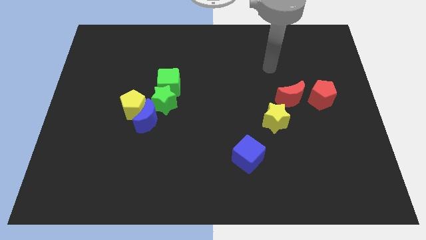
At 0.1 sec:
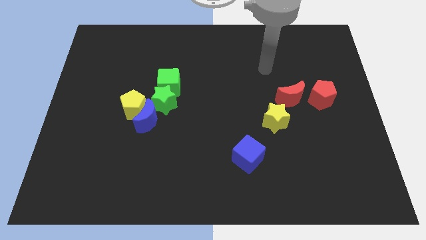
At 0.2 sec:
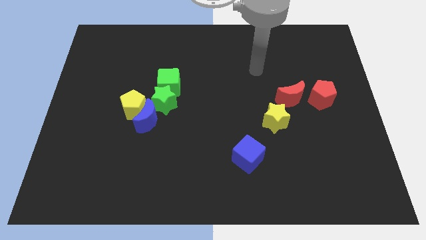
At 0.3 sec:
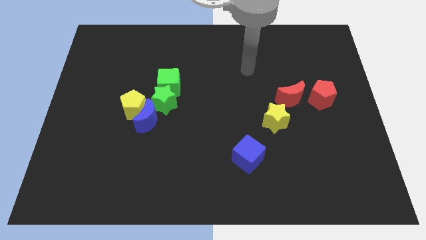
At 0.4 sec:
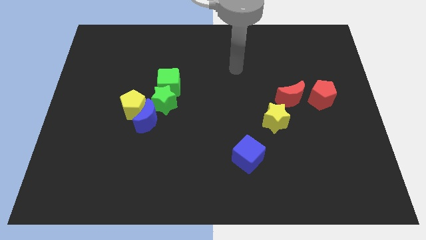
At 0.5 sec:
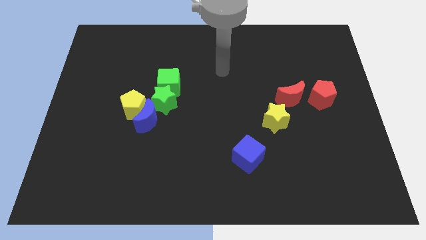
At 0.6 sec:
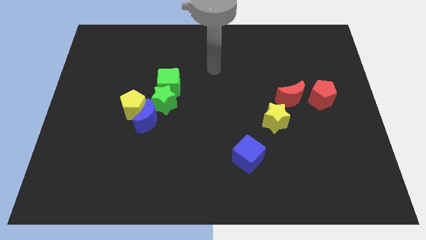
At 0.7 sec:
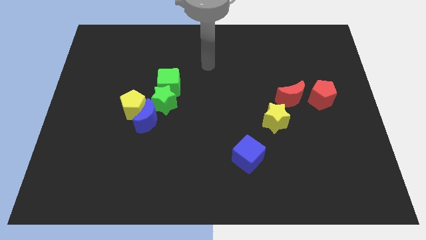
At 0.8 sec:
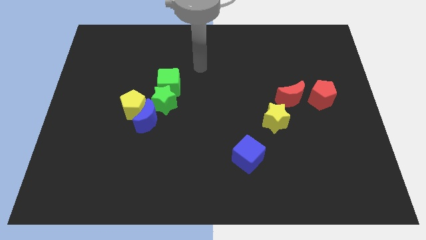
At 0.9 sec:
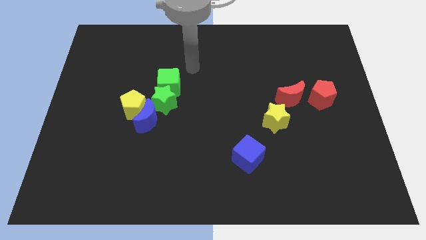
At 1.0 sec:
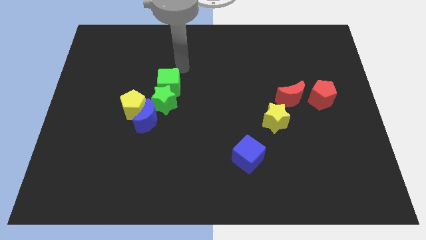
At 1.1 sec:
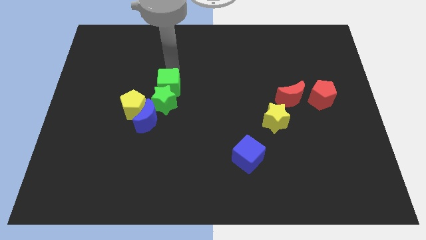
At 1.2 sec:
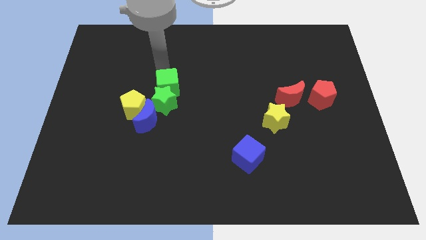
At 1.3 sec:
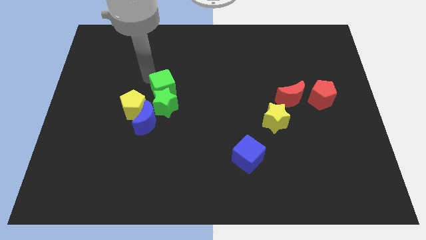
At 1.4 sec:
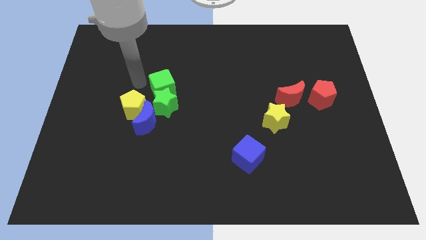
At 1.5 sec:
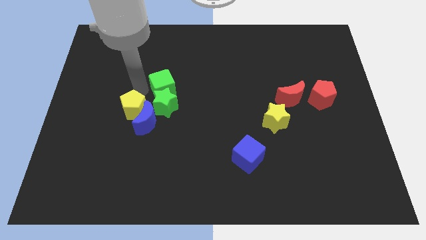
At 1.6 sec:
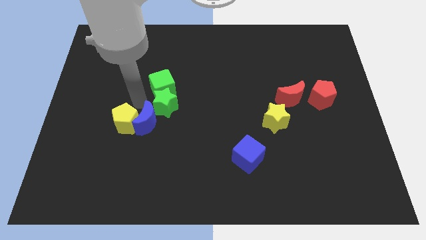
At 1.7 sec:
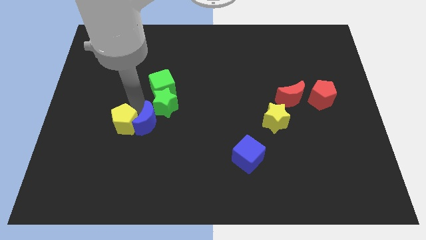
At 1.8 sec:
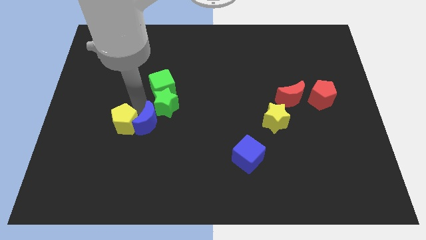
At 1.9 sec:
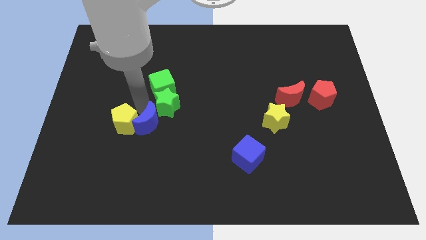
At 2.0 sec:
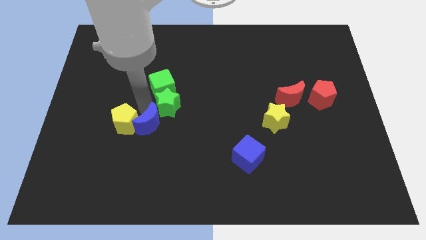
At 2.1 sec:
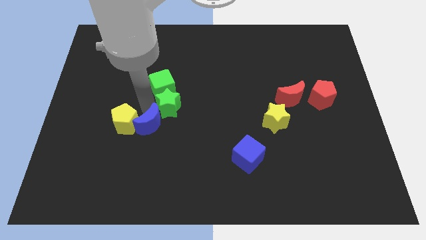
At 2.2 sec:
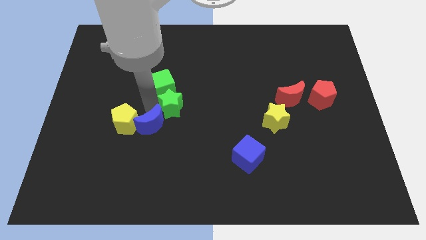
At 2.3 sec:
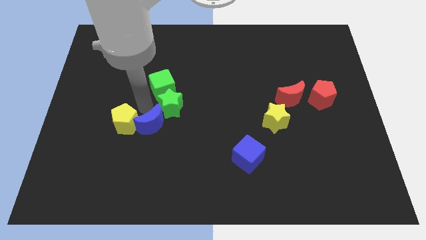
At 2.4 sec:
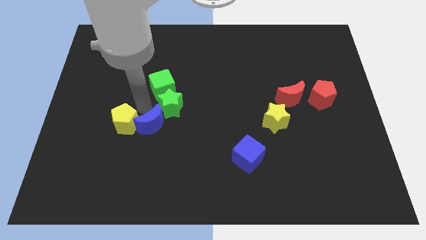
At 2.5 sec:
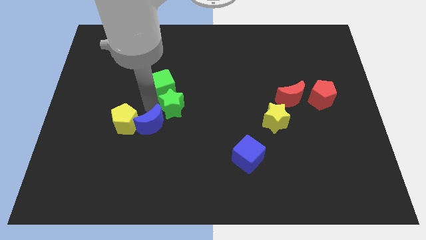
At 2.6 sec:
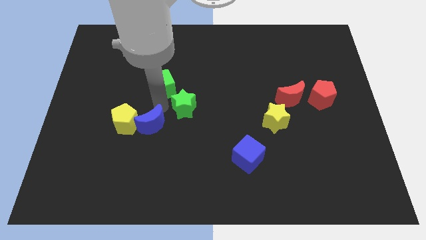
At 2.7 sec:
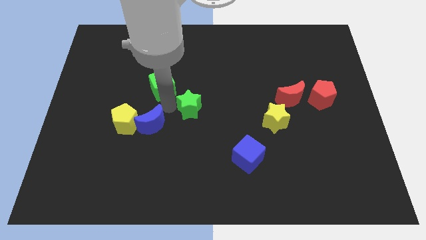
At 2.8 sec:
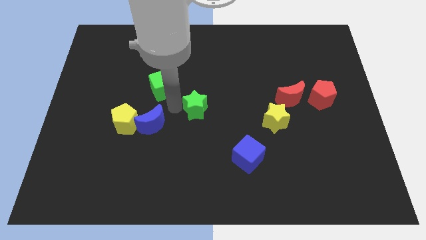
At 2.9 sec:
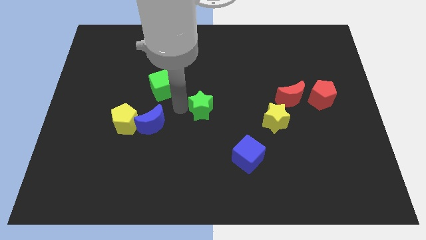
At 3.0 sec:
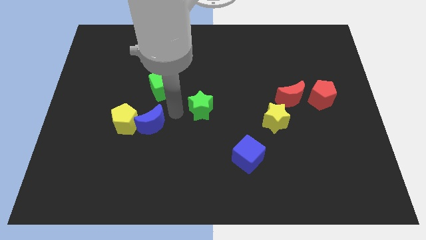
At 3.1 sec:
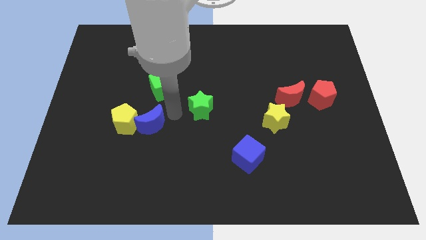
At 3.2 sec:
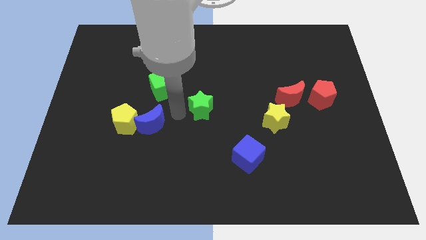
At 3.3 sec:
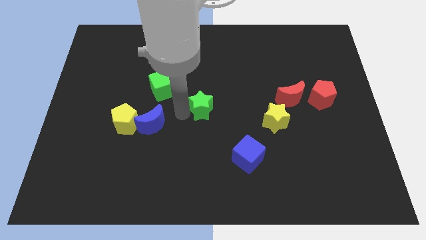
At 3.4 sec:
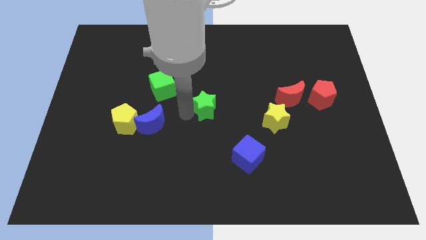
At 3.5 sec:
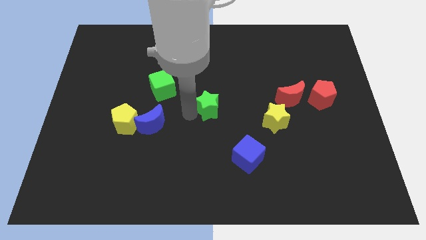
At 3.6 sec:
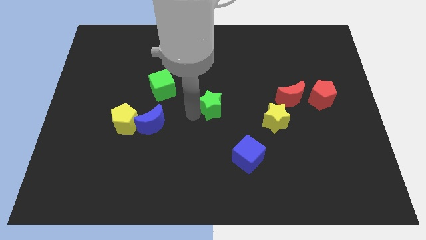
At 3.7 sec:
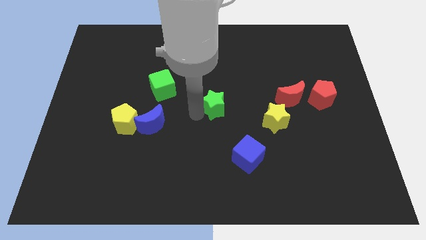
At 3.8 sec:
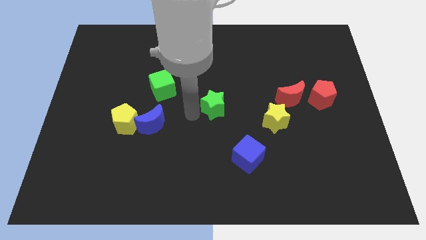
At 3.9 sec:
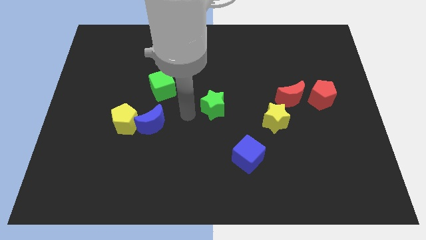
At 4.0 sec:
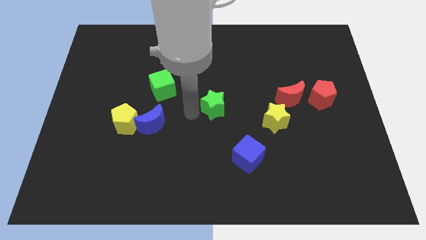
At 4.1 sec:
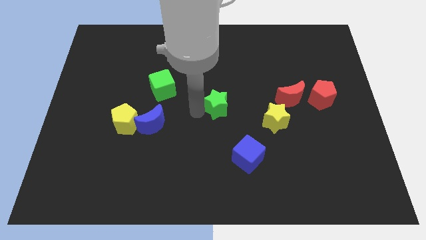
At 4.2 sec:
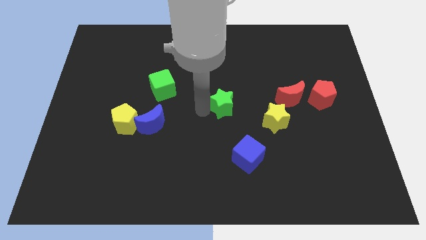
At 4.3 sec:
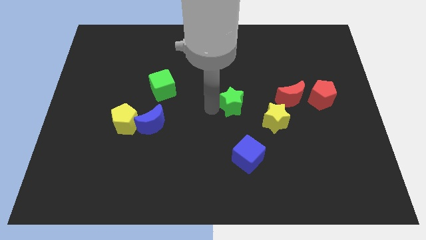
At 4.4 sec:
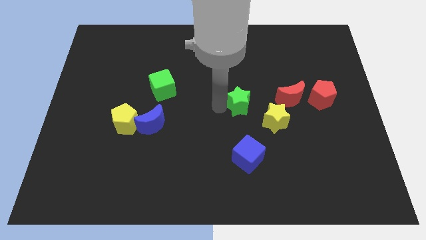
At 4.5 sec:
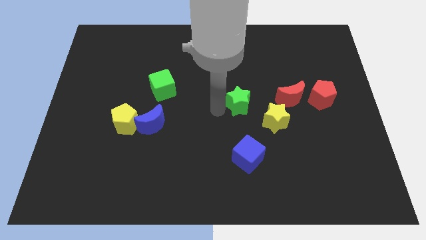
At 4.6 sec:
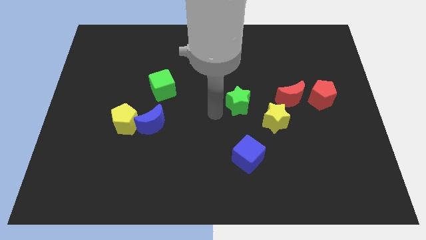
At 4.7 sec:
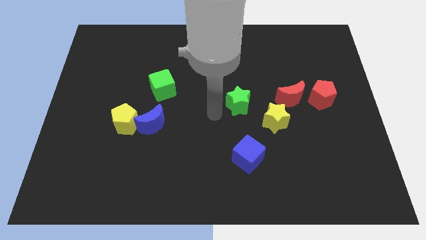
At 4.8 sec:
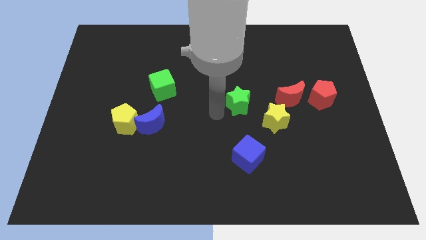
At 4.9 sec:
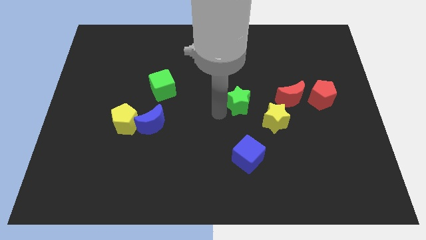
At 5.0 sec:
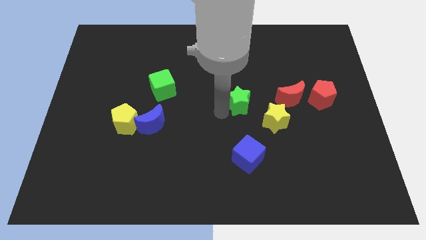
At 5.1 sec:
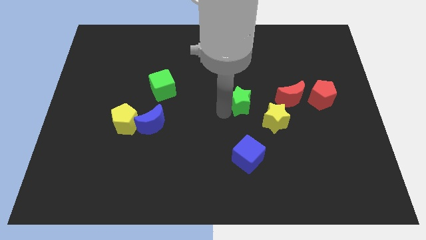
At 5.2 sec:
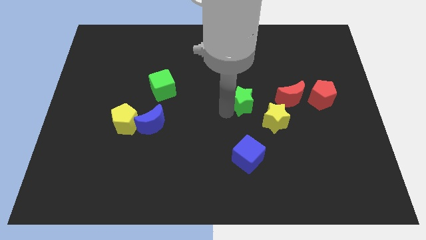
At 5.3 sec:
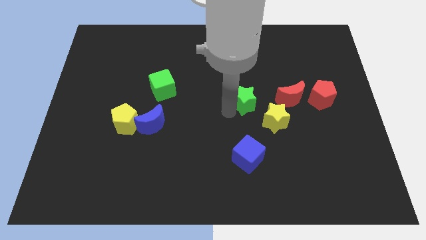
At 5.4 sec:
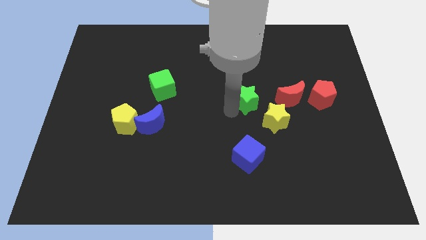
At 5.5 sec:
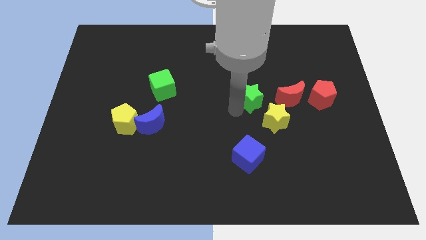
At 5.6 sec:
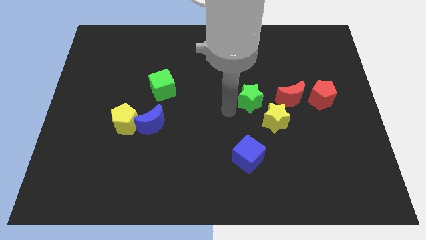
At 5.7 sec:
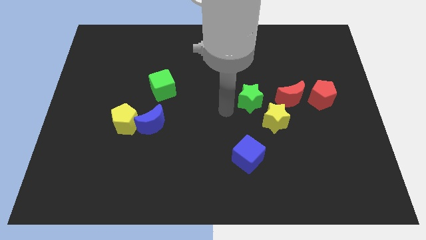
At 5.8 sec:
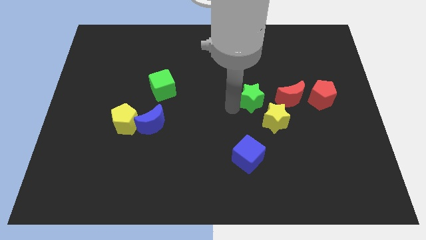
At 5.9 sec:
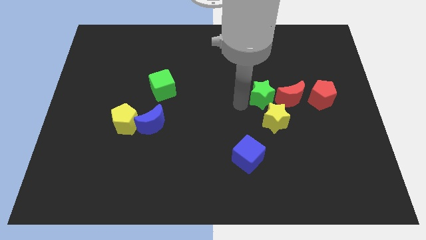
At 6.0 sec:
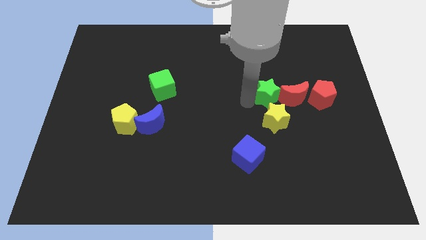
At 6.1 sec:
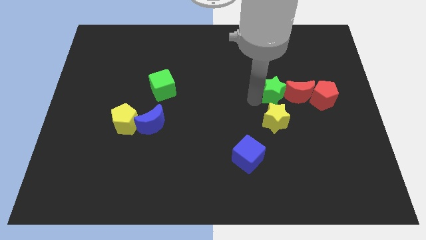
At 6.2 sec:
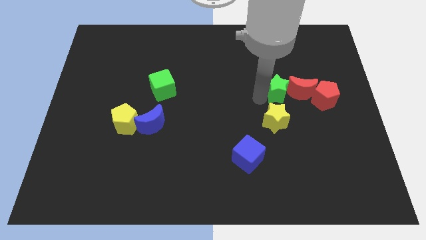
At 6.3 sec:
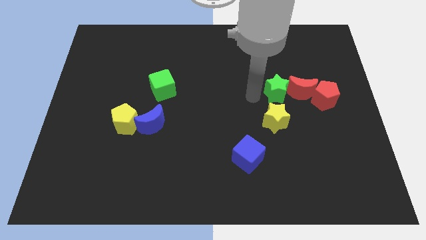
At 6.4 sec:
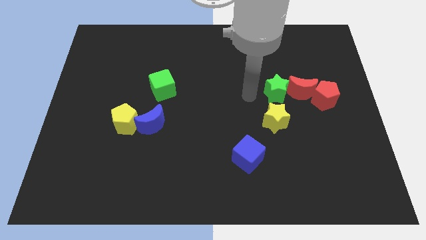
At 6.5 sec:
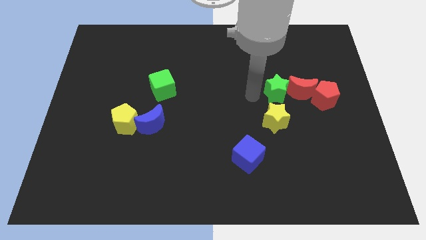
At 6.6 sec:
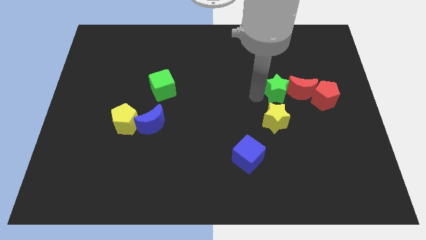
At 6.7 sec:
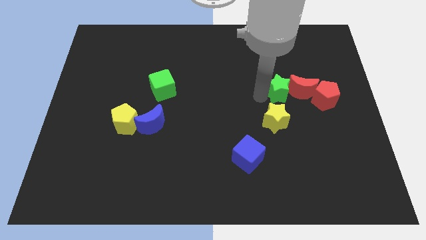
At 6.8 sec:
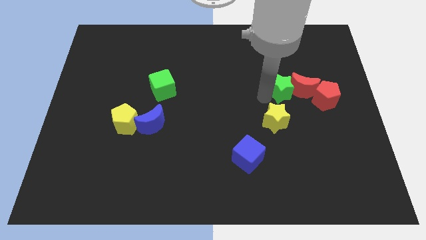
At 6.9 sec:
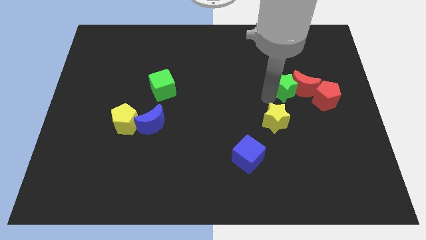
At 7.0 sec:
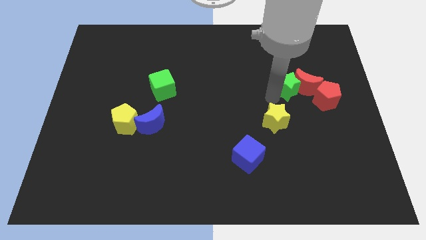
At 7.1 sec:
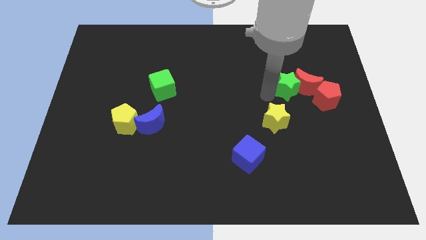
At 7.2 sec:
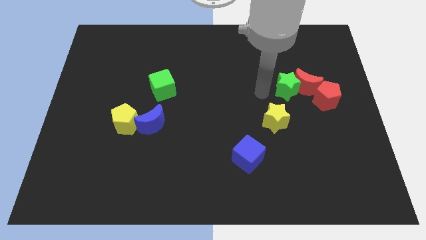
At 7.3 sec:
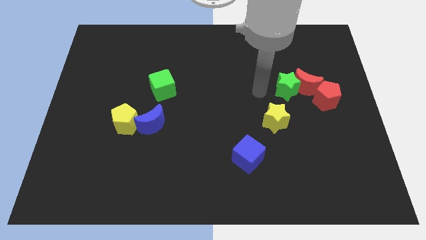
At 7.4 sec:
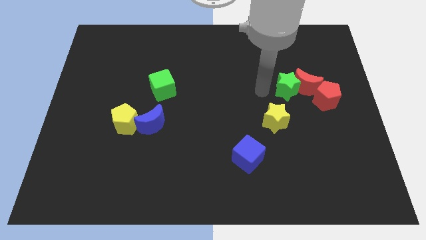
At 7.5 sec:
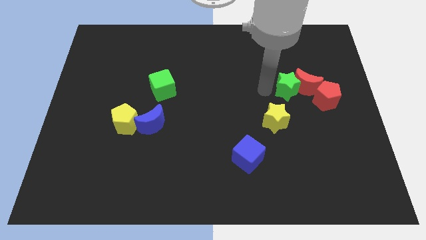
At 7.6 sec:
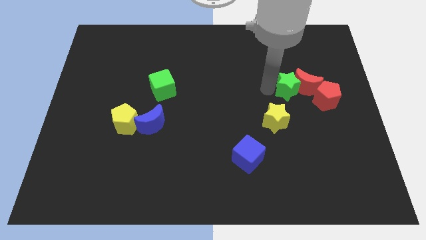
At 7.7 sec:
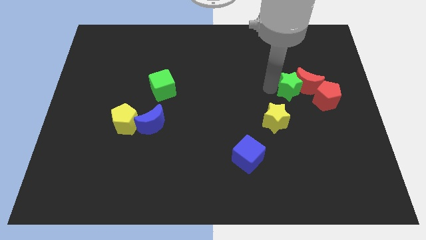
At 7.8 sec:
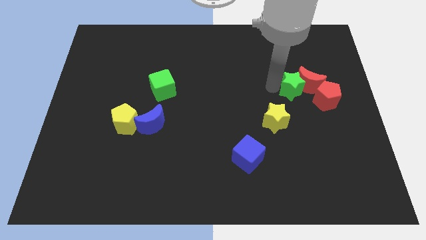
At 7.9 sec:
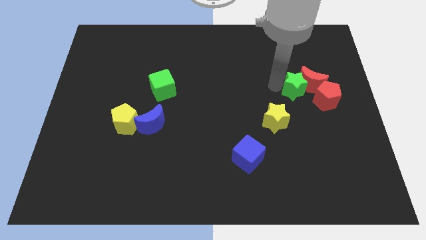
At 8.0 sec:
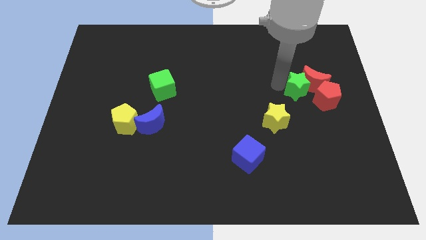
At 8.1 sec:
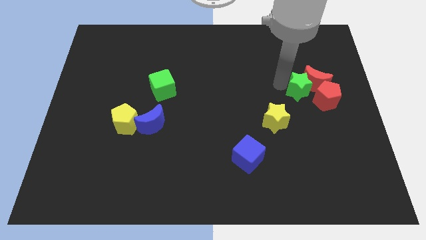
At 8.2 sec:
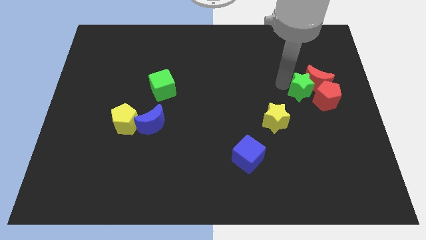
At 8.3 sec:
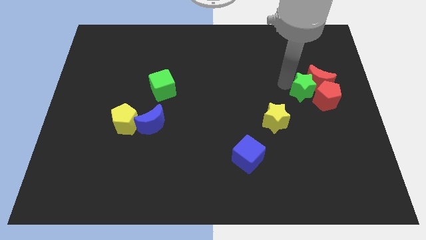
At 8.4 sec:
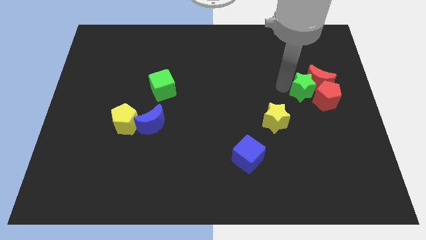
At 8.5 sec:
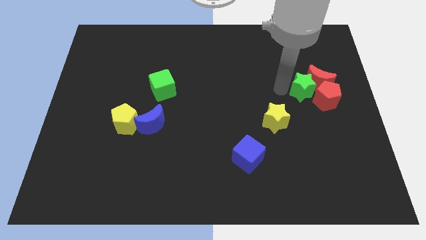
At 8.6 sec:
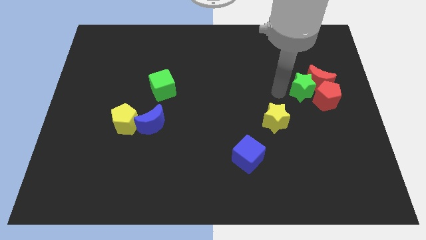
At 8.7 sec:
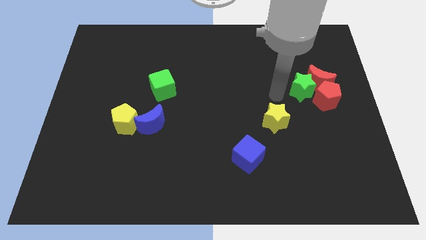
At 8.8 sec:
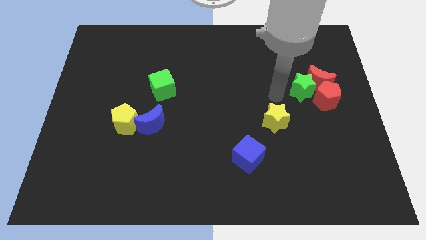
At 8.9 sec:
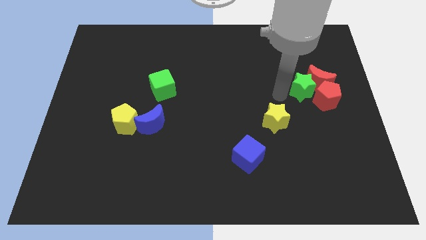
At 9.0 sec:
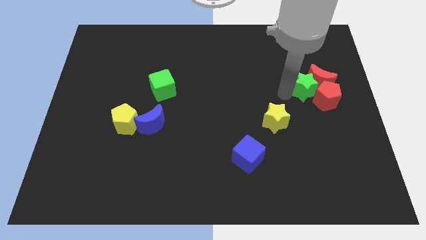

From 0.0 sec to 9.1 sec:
put the green star next to the red pentagon
